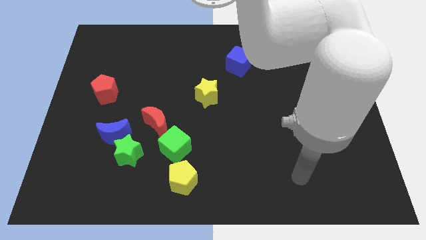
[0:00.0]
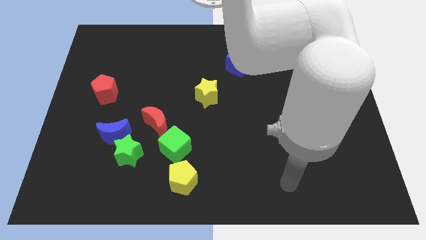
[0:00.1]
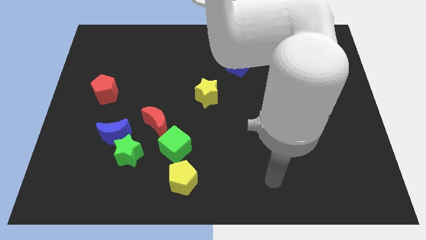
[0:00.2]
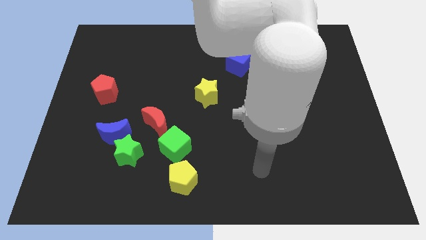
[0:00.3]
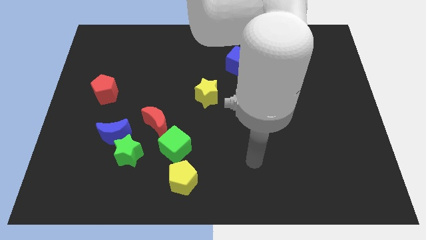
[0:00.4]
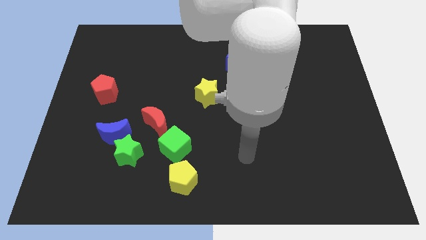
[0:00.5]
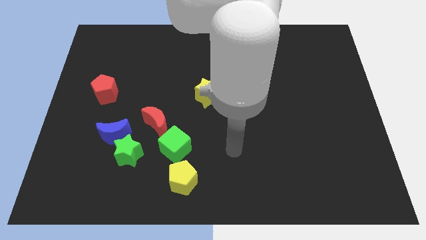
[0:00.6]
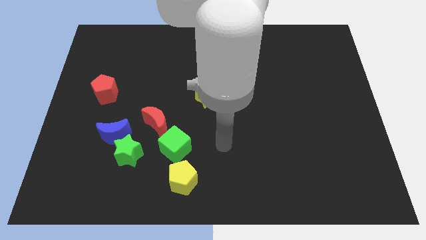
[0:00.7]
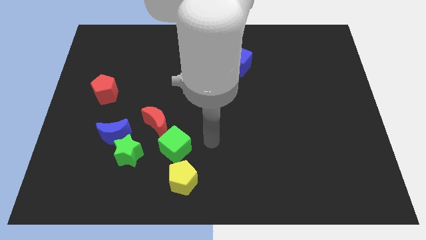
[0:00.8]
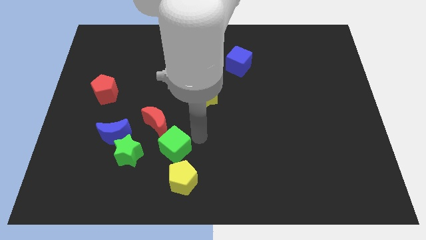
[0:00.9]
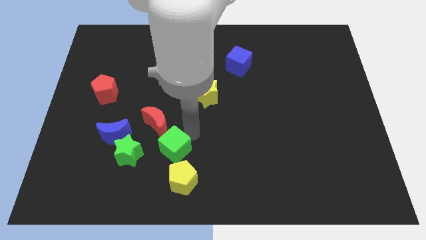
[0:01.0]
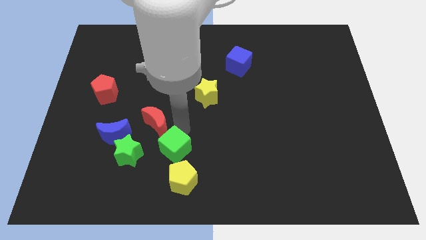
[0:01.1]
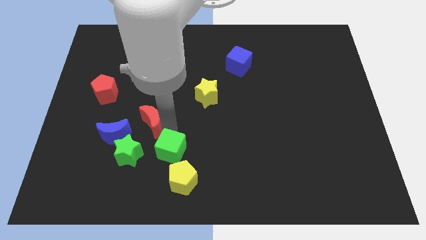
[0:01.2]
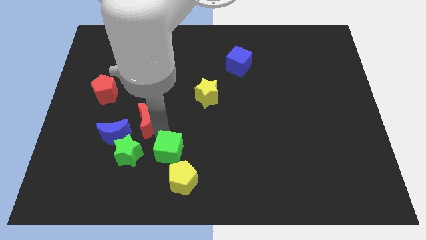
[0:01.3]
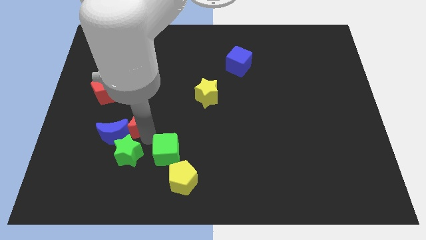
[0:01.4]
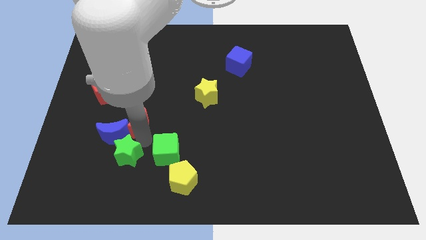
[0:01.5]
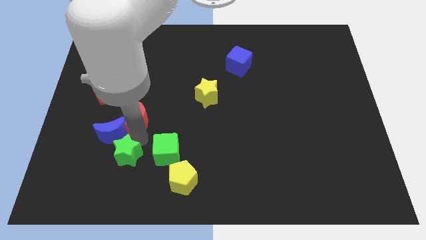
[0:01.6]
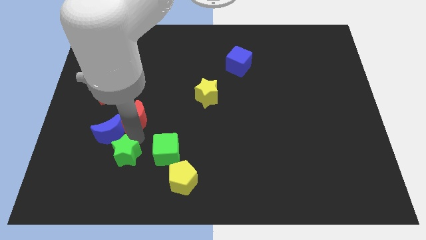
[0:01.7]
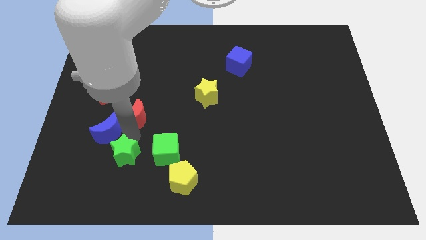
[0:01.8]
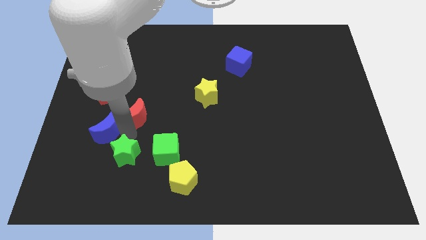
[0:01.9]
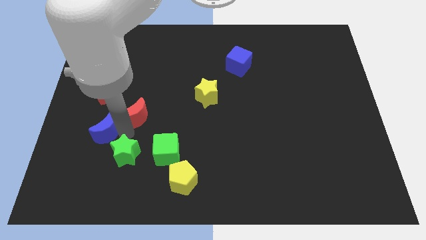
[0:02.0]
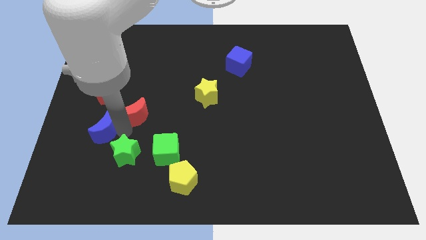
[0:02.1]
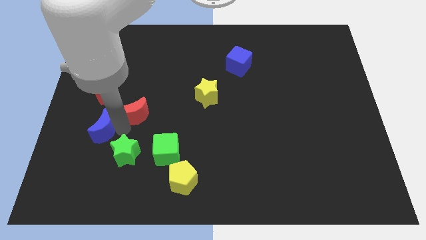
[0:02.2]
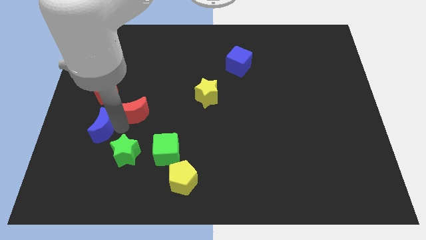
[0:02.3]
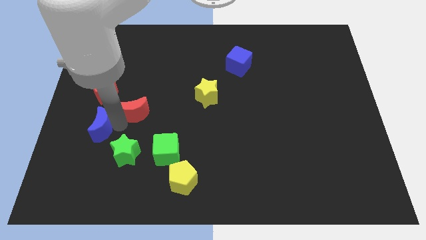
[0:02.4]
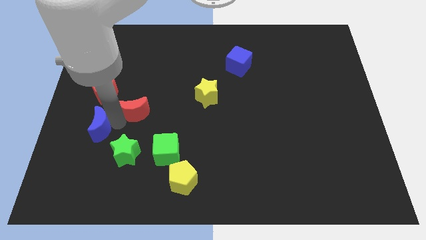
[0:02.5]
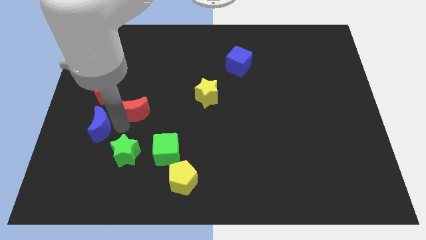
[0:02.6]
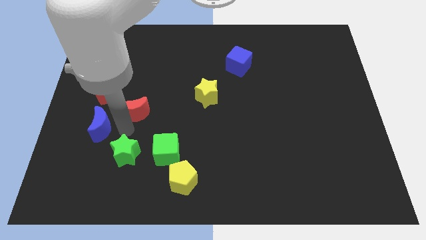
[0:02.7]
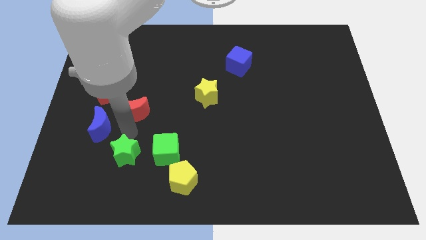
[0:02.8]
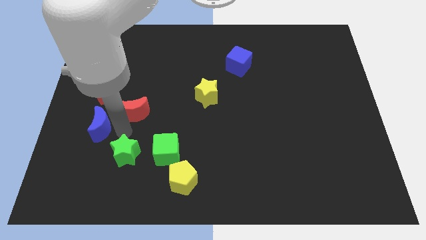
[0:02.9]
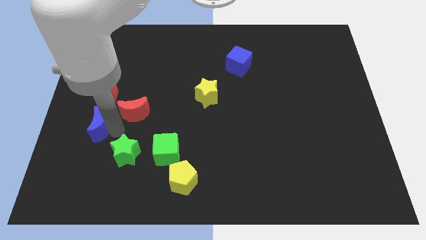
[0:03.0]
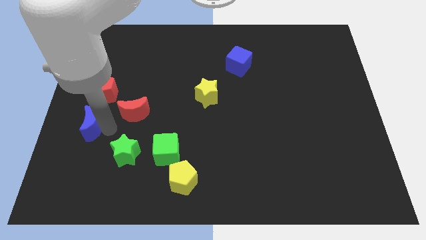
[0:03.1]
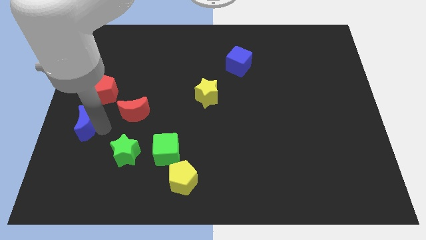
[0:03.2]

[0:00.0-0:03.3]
move the blue moon away from the green star and red moon

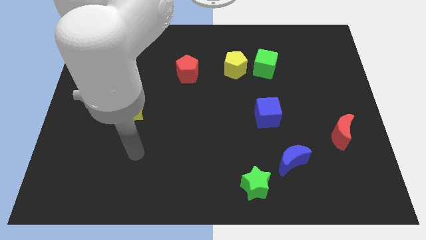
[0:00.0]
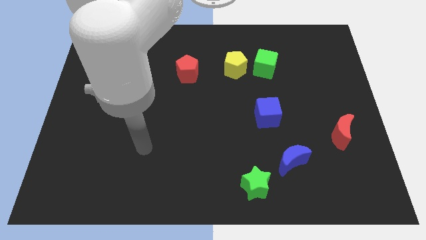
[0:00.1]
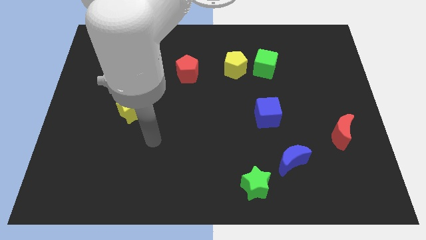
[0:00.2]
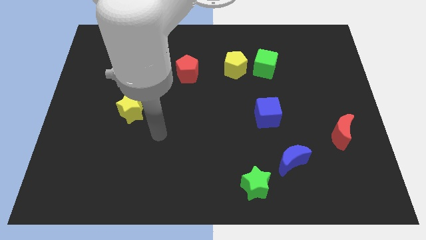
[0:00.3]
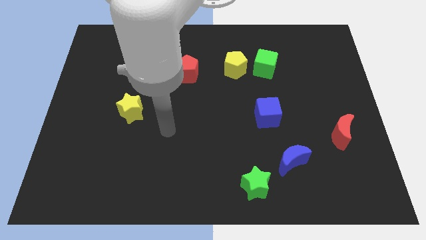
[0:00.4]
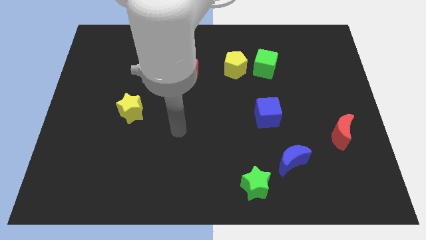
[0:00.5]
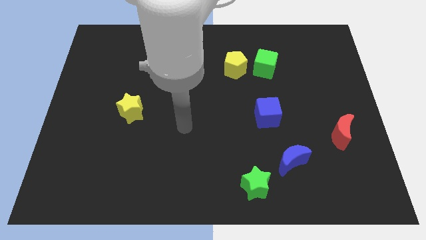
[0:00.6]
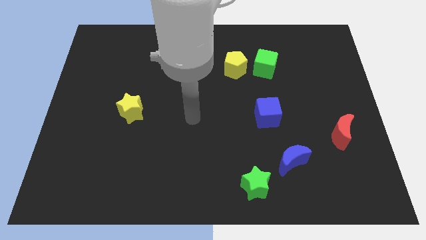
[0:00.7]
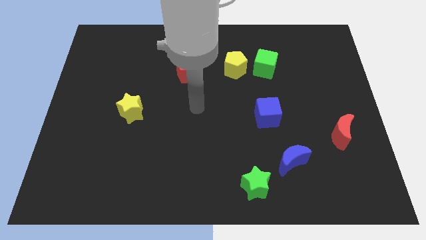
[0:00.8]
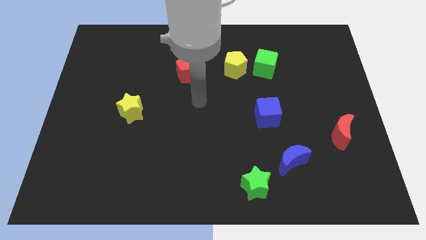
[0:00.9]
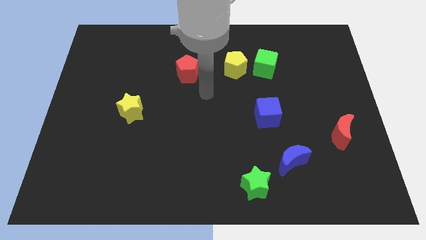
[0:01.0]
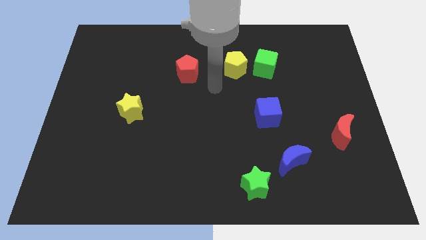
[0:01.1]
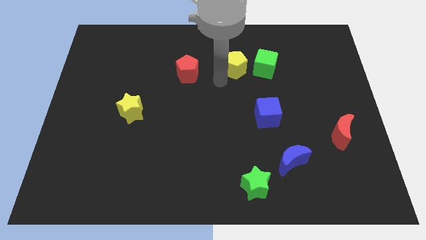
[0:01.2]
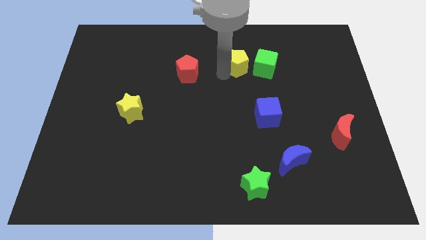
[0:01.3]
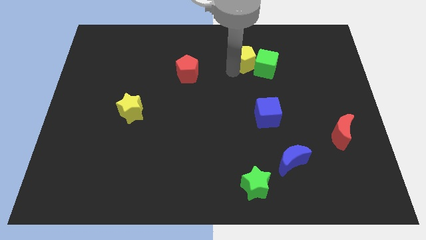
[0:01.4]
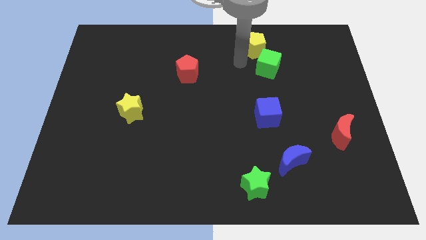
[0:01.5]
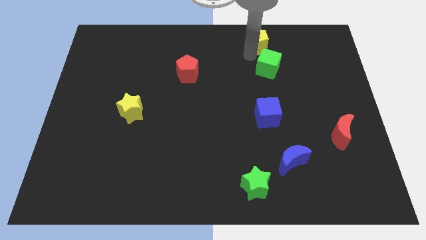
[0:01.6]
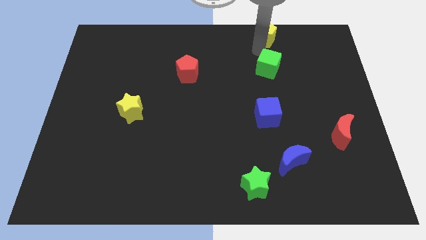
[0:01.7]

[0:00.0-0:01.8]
pull the green cube apart from the yellow pentagon

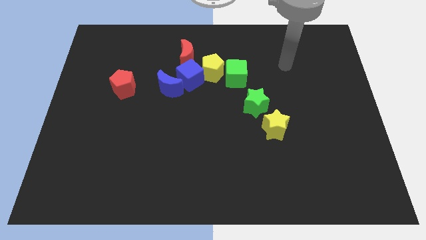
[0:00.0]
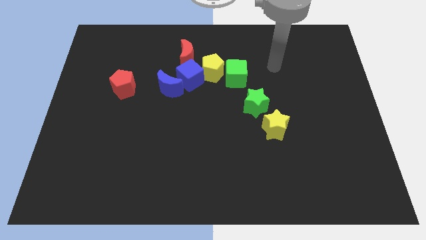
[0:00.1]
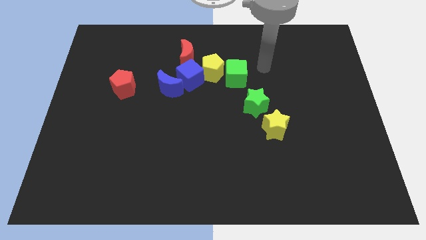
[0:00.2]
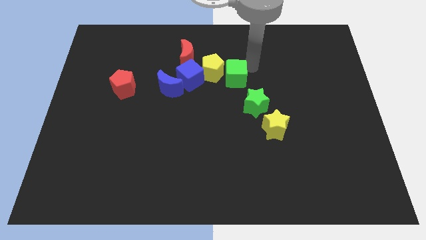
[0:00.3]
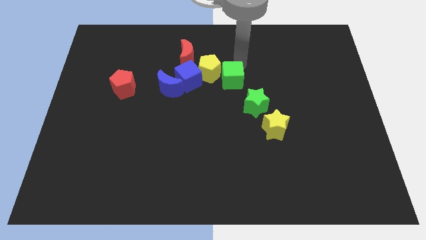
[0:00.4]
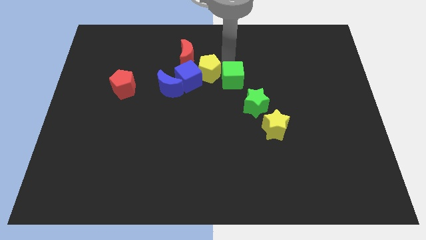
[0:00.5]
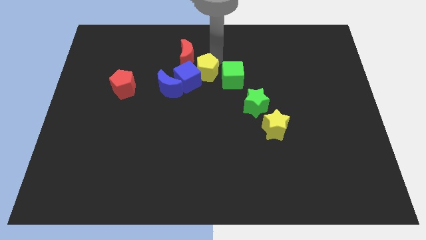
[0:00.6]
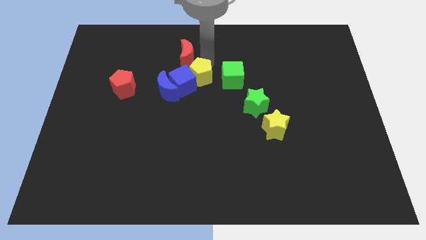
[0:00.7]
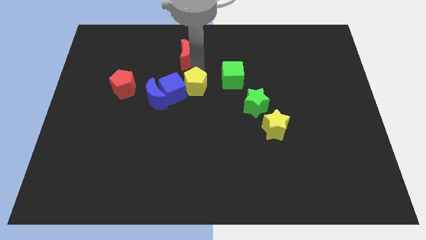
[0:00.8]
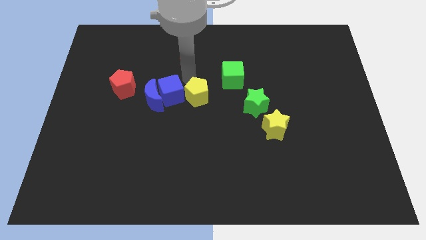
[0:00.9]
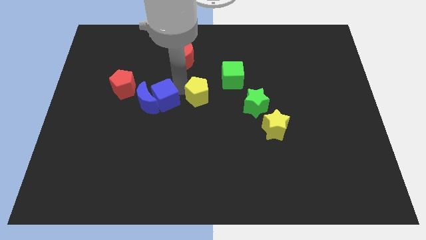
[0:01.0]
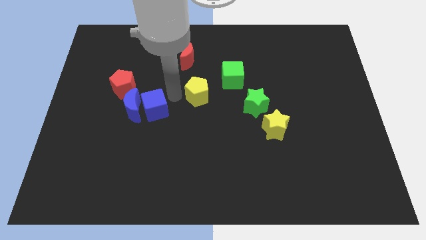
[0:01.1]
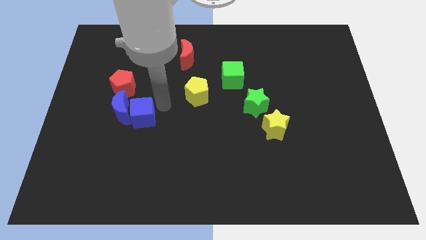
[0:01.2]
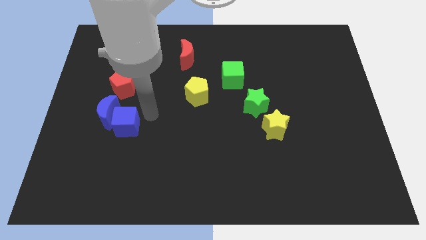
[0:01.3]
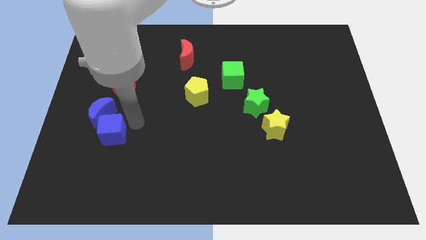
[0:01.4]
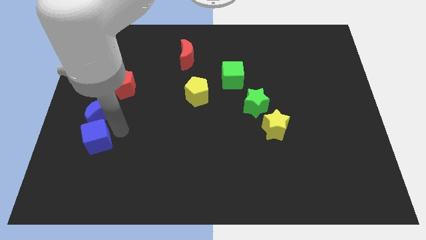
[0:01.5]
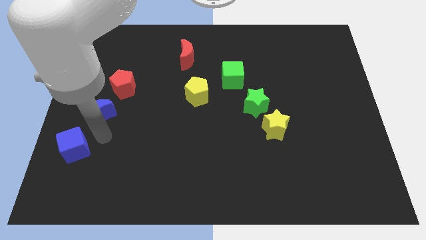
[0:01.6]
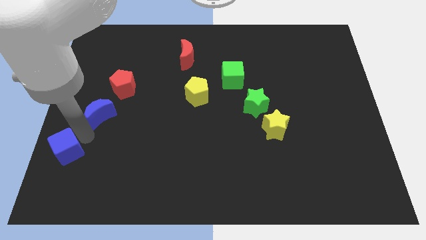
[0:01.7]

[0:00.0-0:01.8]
move the blue moon away from the blue cube

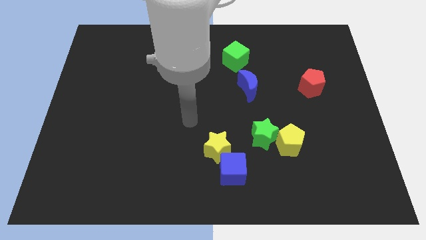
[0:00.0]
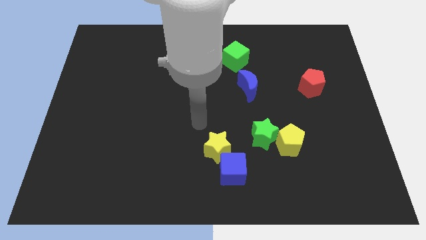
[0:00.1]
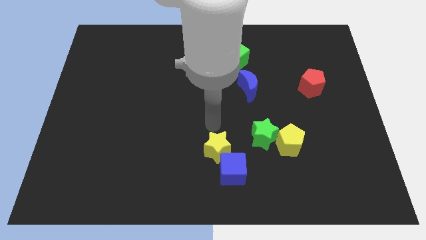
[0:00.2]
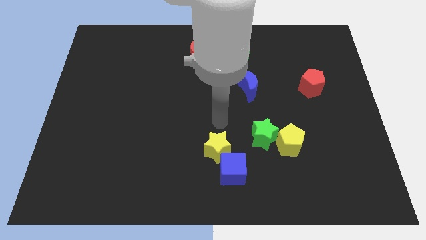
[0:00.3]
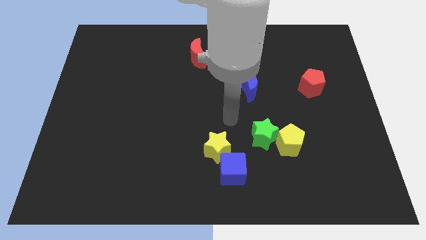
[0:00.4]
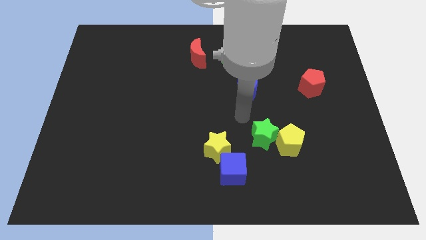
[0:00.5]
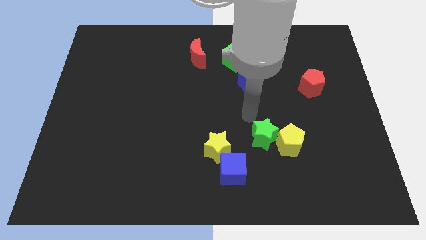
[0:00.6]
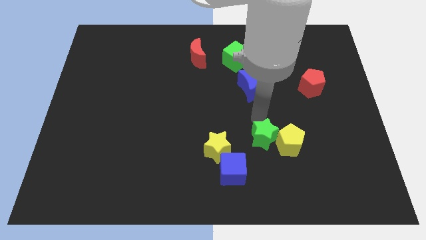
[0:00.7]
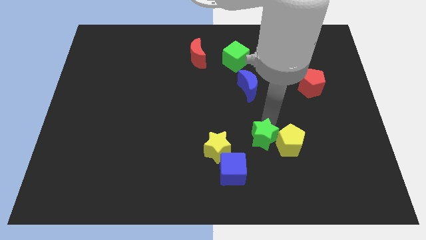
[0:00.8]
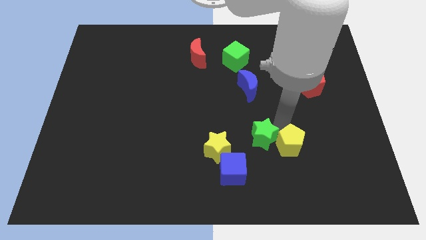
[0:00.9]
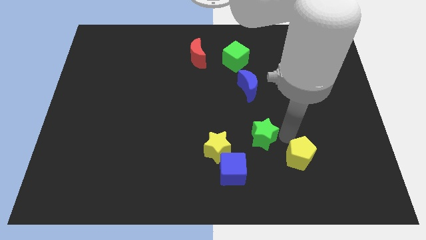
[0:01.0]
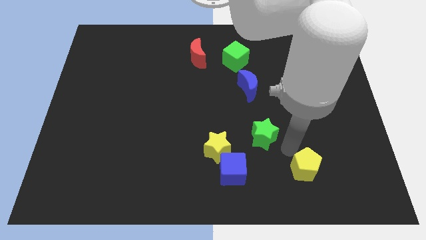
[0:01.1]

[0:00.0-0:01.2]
pull the green star apart from the yellow pentagon

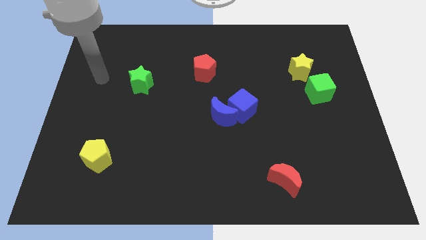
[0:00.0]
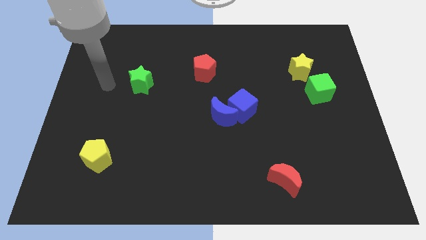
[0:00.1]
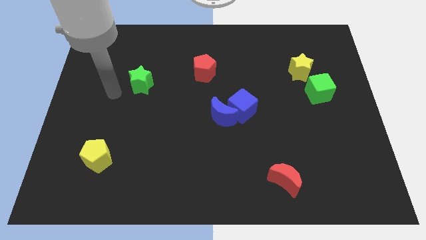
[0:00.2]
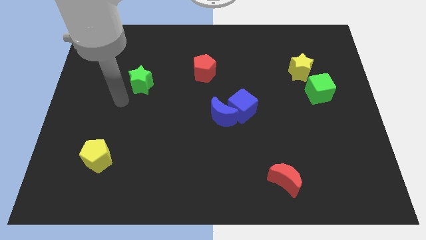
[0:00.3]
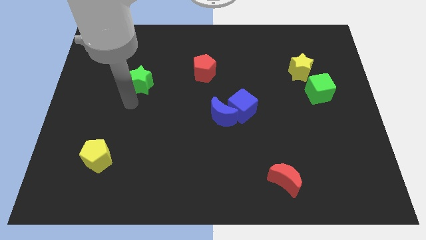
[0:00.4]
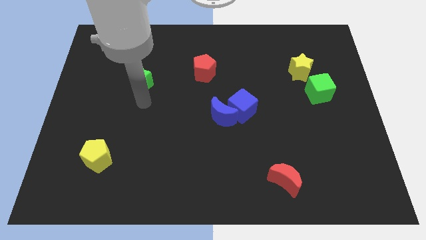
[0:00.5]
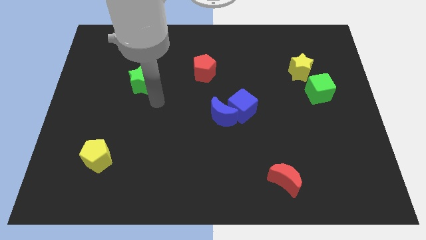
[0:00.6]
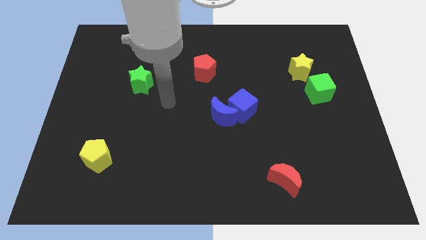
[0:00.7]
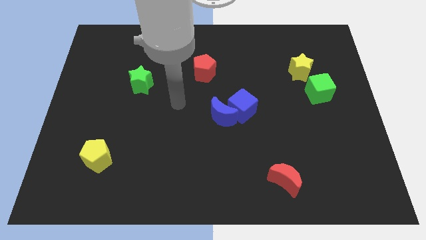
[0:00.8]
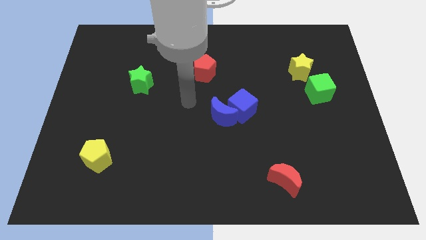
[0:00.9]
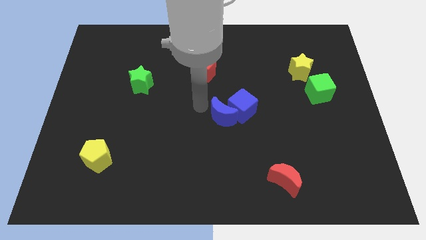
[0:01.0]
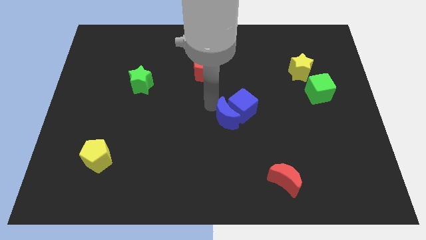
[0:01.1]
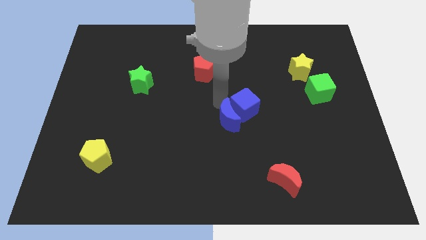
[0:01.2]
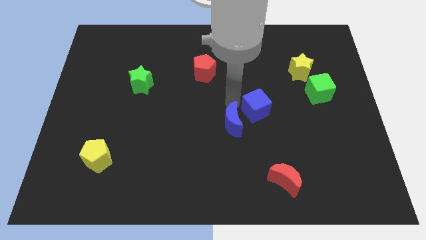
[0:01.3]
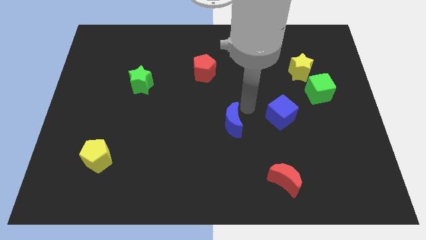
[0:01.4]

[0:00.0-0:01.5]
separate the blue moon from the blue cube
